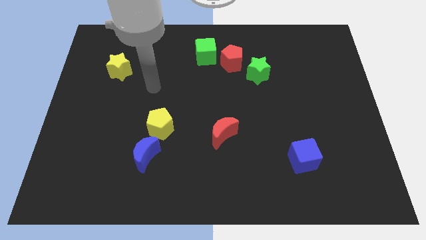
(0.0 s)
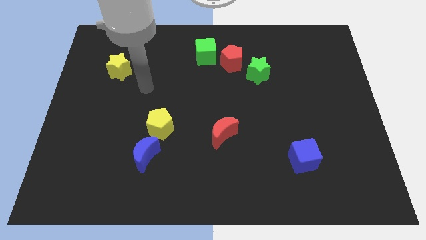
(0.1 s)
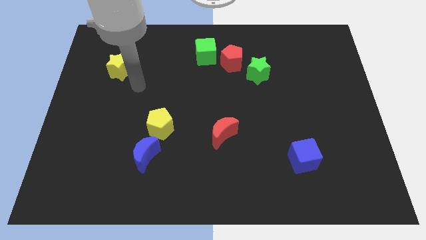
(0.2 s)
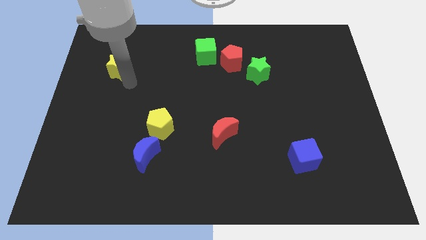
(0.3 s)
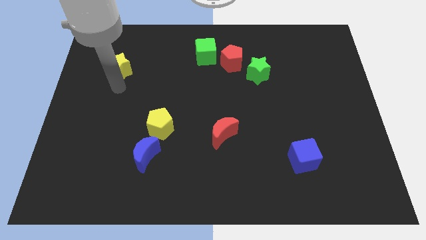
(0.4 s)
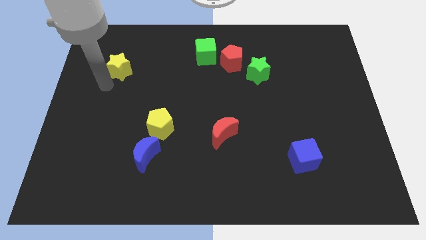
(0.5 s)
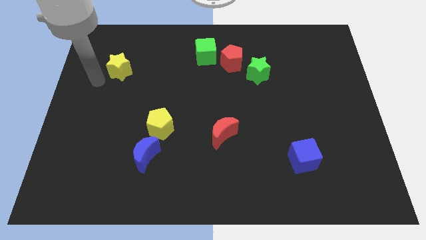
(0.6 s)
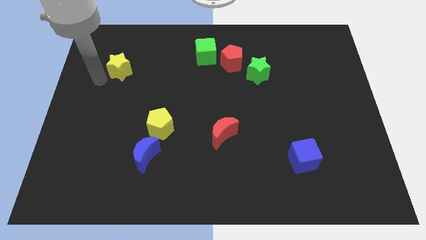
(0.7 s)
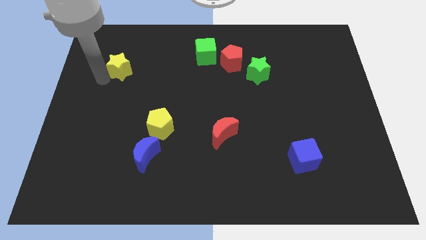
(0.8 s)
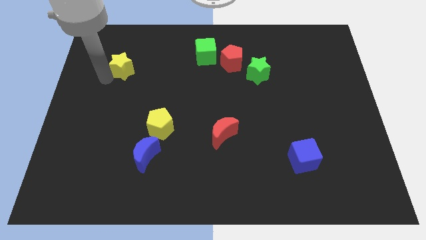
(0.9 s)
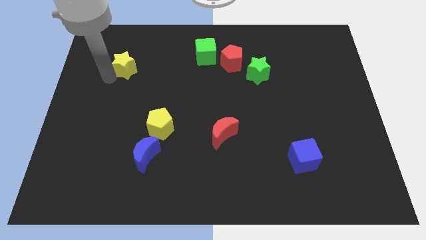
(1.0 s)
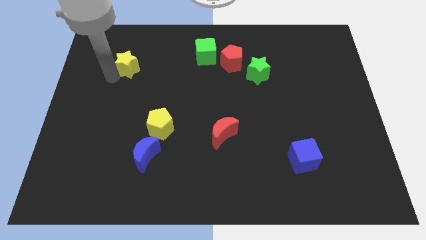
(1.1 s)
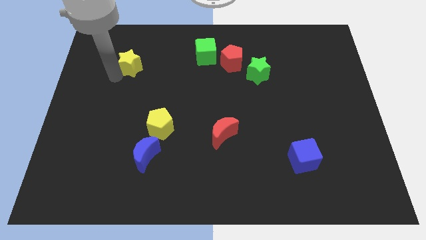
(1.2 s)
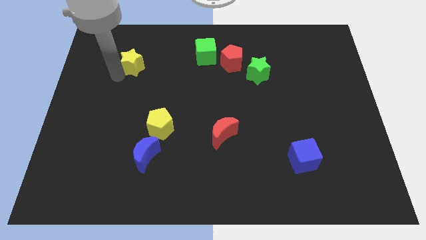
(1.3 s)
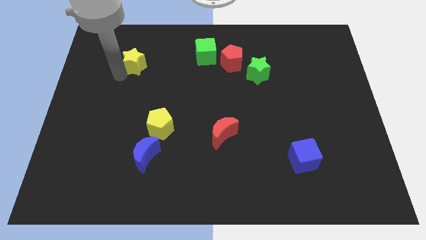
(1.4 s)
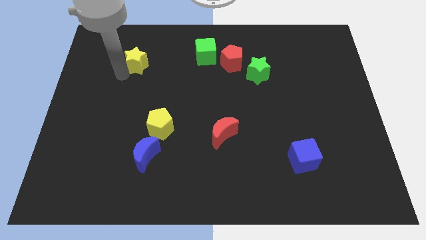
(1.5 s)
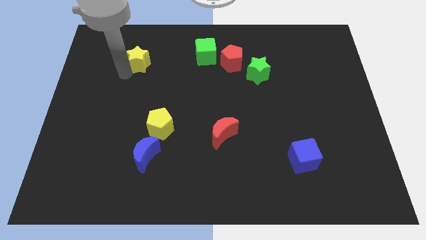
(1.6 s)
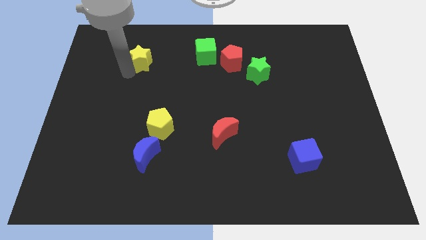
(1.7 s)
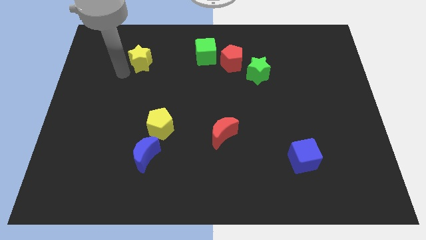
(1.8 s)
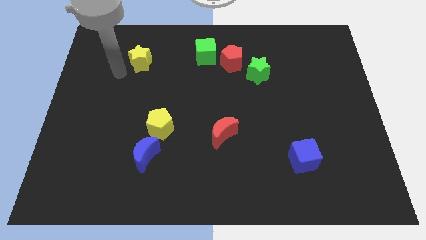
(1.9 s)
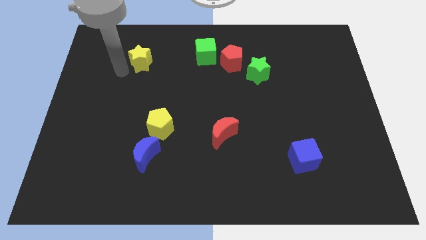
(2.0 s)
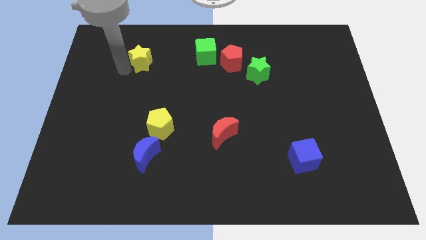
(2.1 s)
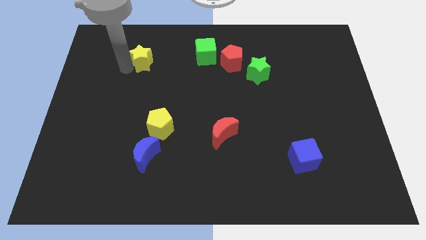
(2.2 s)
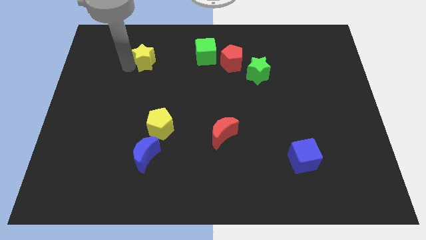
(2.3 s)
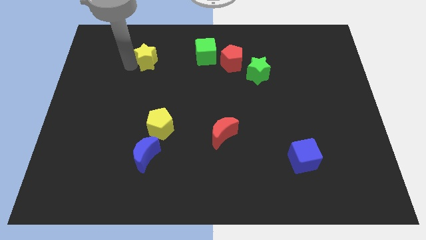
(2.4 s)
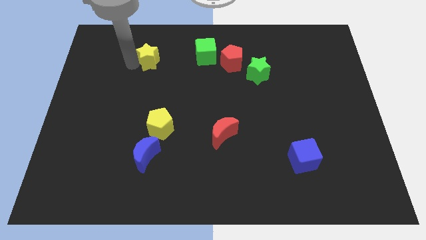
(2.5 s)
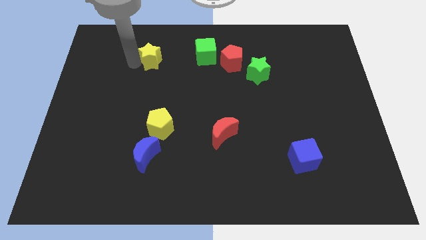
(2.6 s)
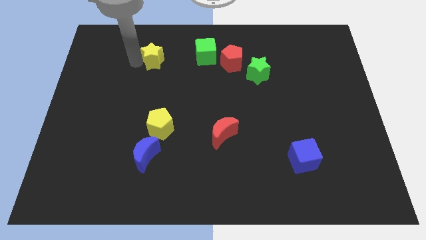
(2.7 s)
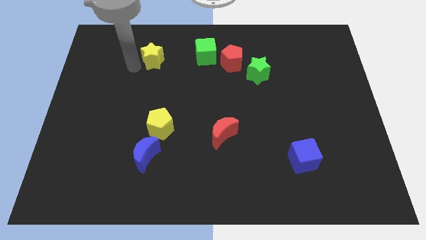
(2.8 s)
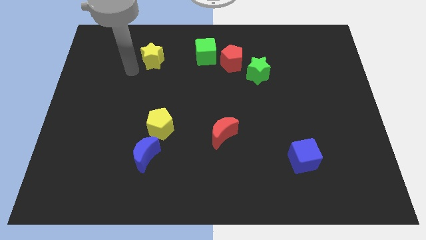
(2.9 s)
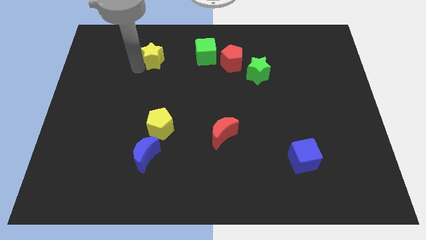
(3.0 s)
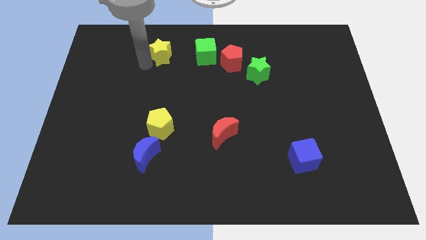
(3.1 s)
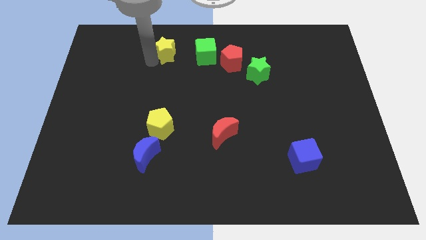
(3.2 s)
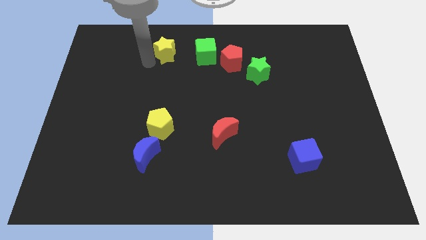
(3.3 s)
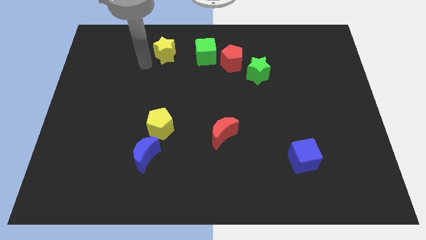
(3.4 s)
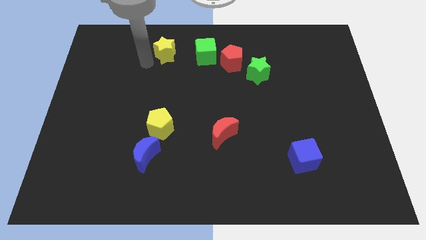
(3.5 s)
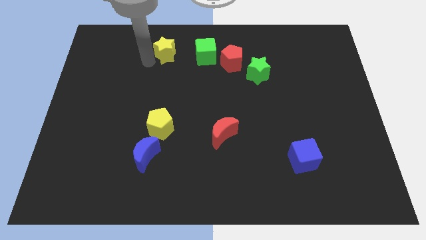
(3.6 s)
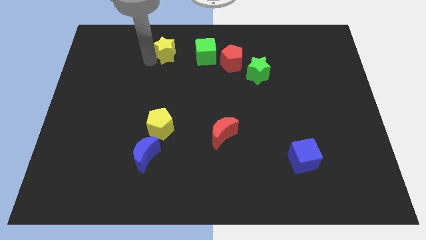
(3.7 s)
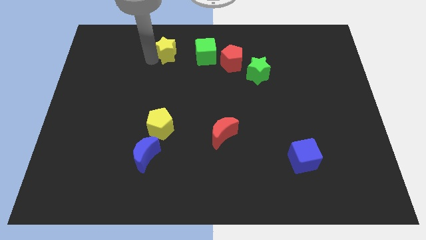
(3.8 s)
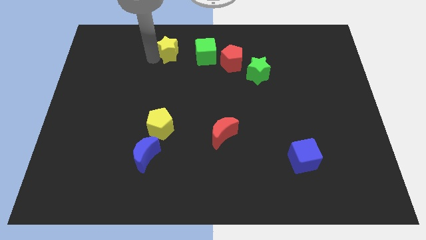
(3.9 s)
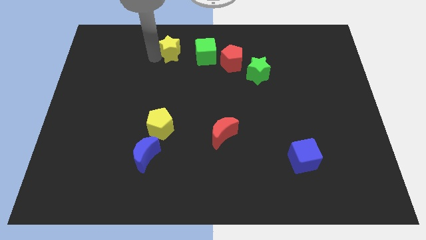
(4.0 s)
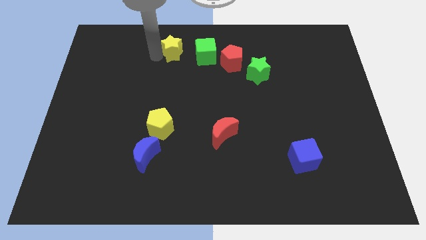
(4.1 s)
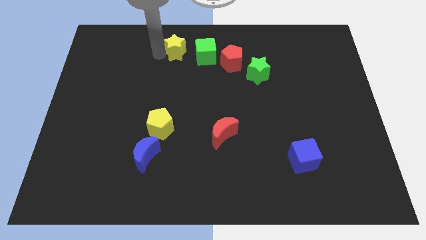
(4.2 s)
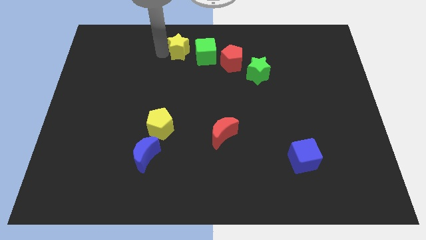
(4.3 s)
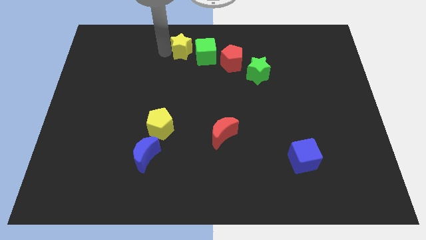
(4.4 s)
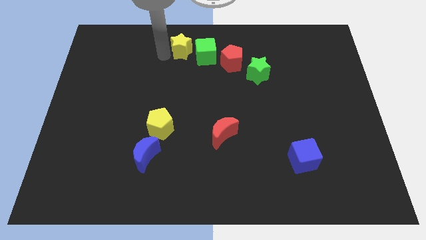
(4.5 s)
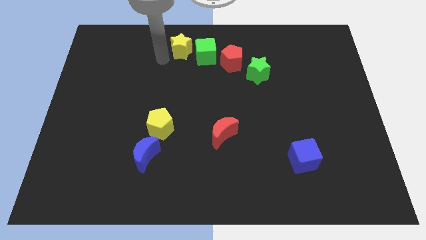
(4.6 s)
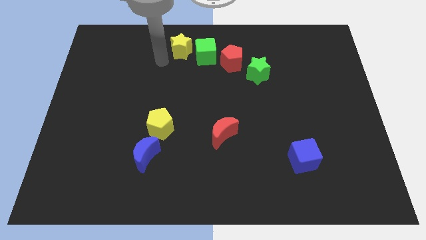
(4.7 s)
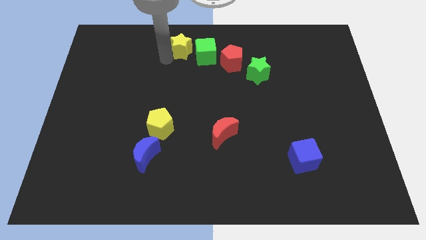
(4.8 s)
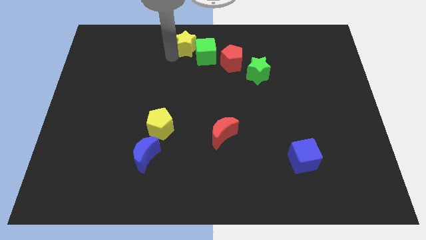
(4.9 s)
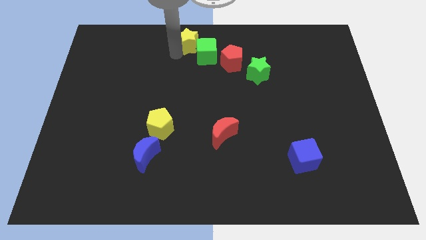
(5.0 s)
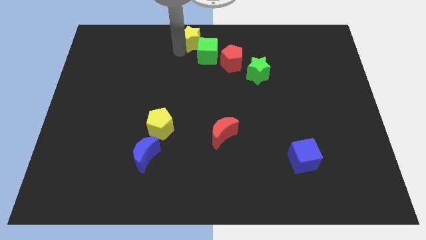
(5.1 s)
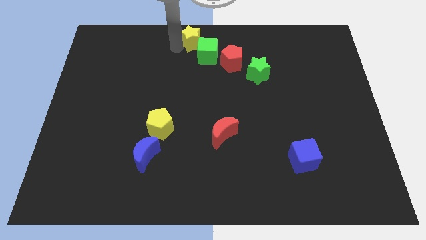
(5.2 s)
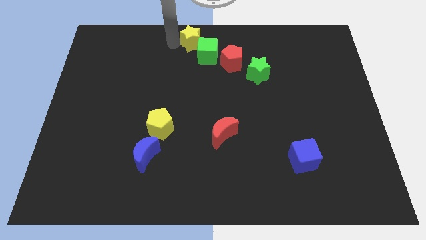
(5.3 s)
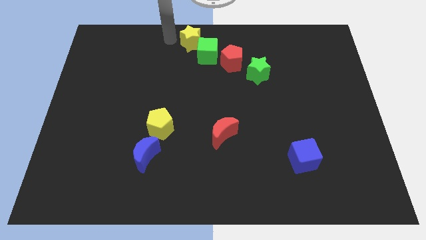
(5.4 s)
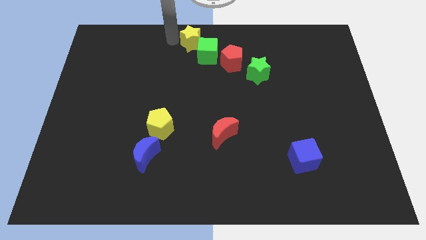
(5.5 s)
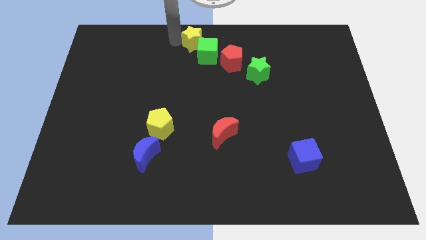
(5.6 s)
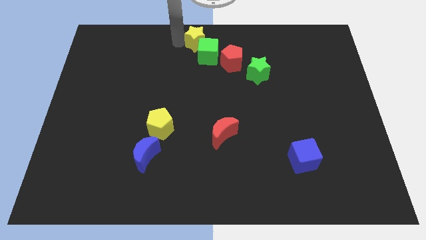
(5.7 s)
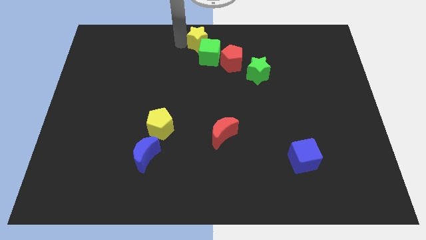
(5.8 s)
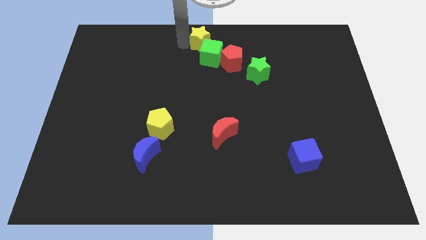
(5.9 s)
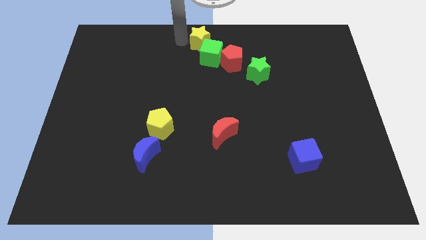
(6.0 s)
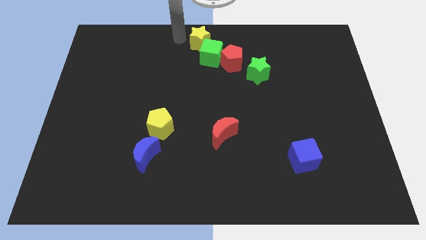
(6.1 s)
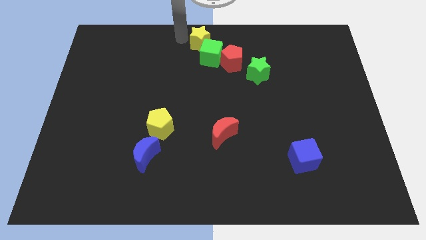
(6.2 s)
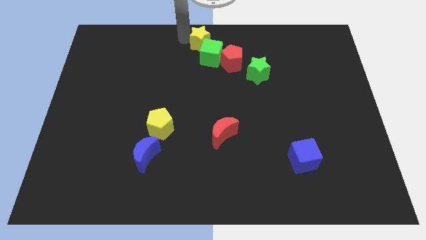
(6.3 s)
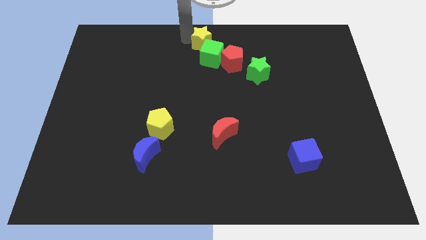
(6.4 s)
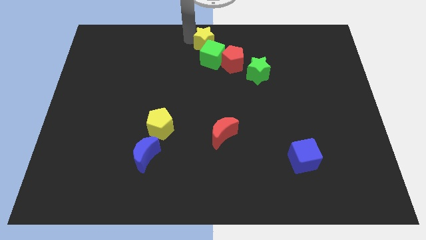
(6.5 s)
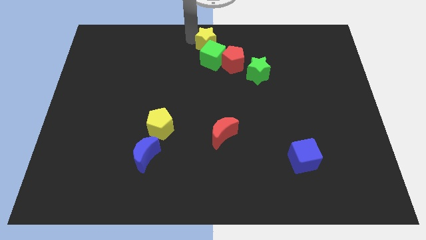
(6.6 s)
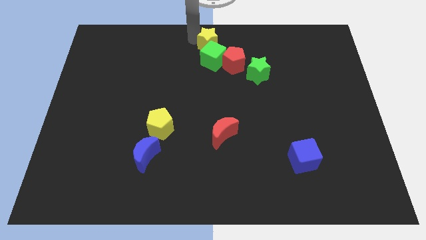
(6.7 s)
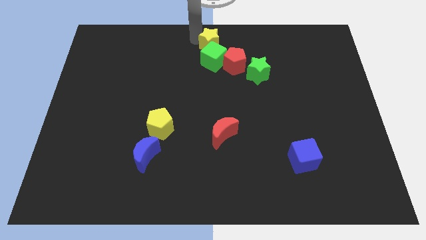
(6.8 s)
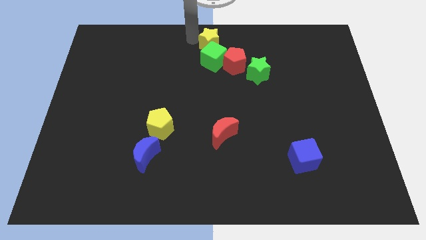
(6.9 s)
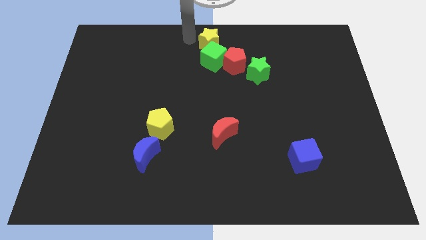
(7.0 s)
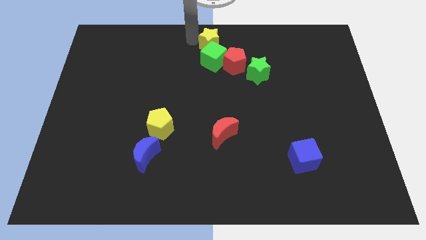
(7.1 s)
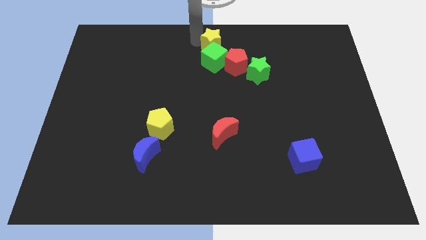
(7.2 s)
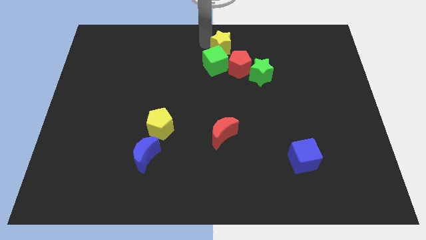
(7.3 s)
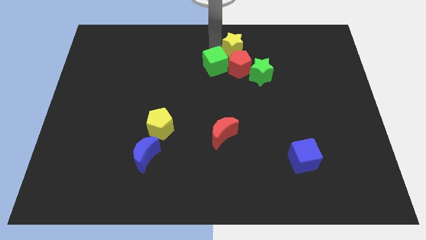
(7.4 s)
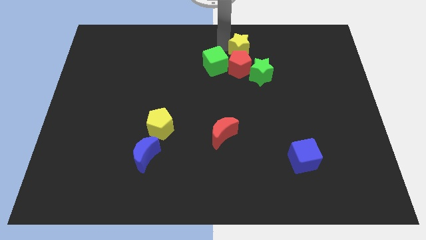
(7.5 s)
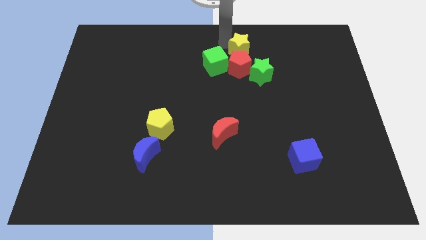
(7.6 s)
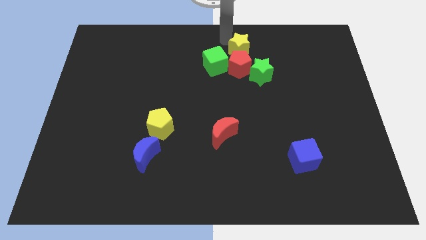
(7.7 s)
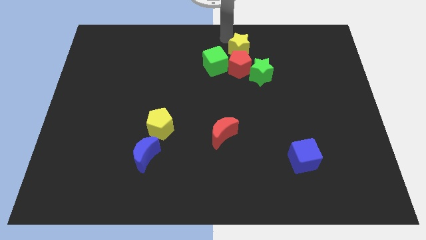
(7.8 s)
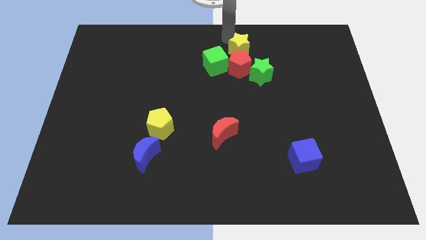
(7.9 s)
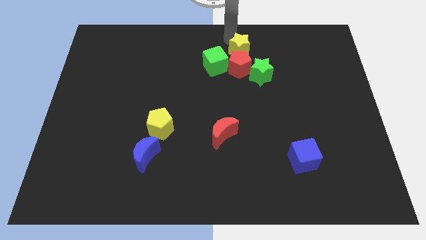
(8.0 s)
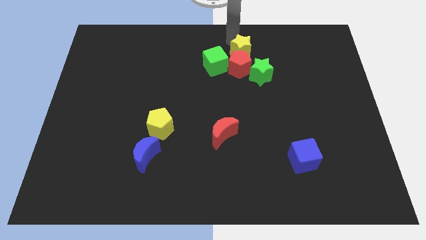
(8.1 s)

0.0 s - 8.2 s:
move the yellow star right of the green cube
